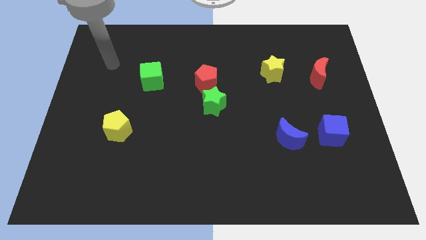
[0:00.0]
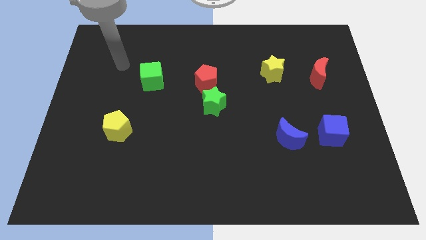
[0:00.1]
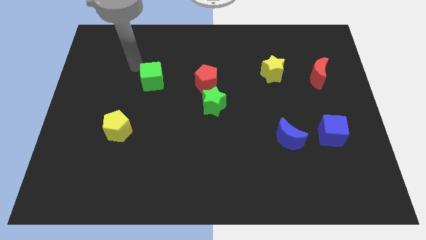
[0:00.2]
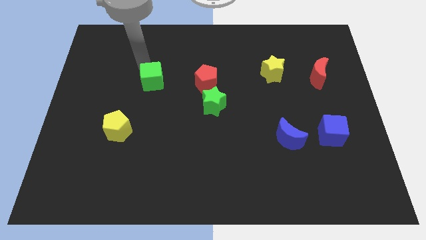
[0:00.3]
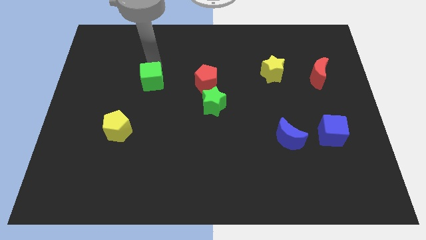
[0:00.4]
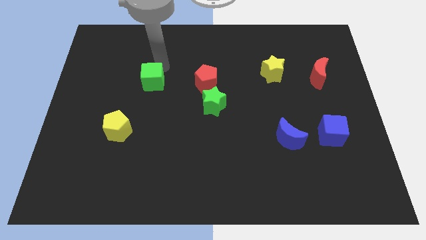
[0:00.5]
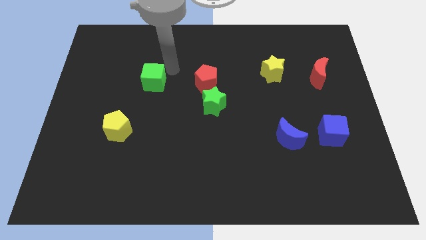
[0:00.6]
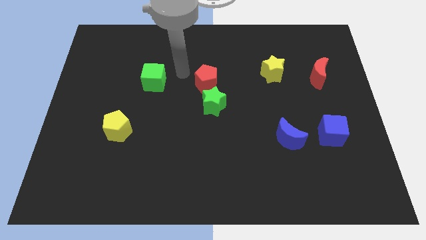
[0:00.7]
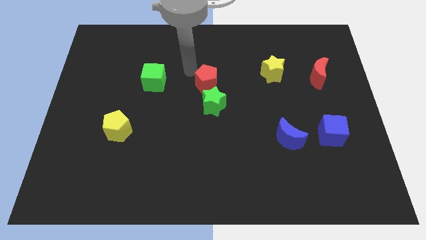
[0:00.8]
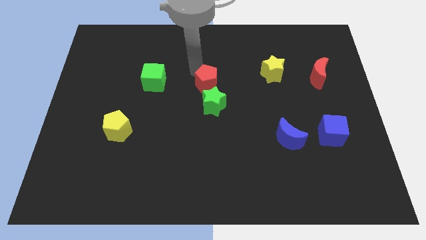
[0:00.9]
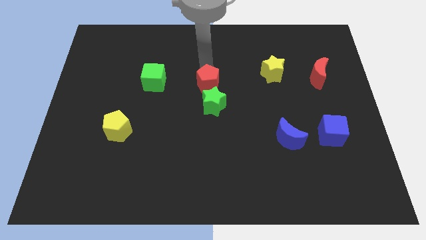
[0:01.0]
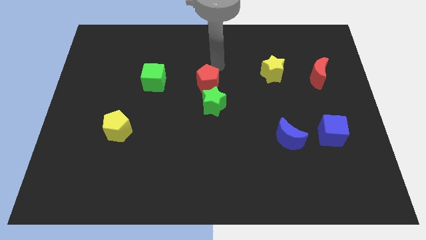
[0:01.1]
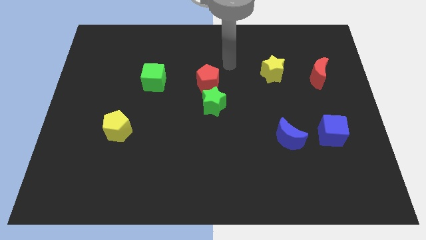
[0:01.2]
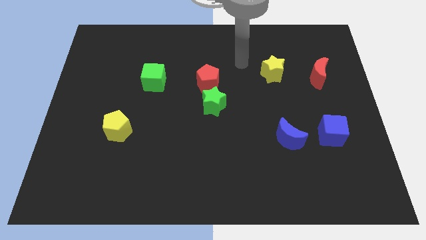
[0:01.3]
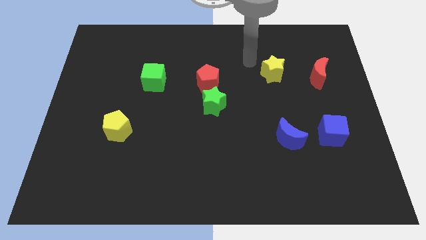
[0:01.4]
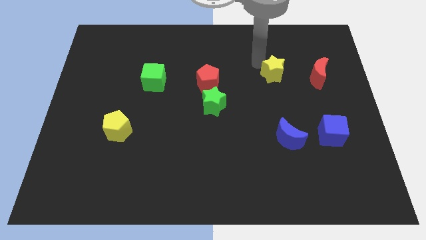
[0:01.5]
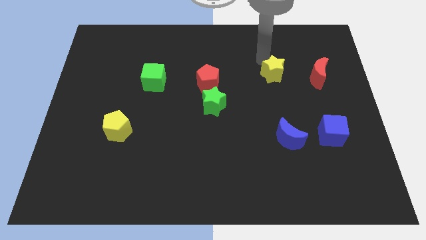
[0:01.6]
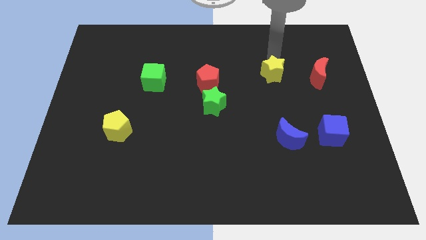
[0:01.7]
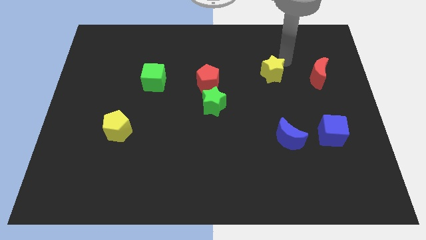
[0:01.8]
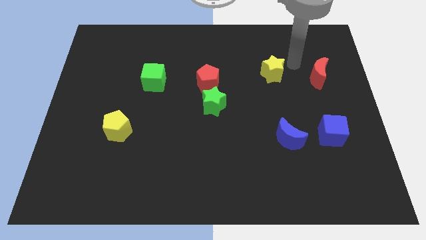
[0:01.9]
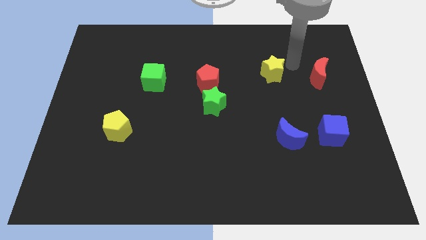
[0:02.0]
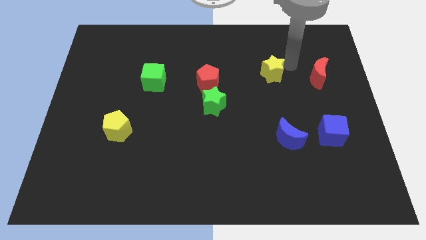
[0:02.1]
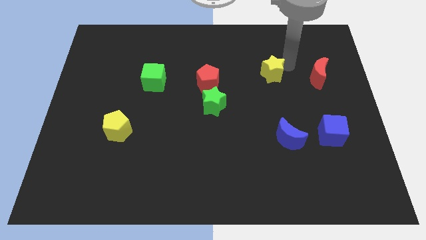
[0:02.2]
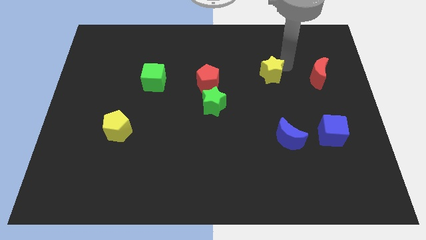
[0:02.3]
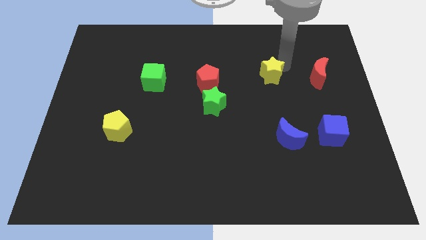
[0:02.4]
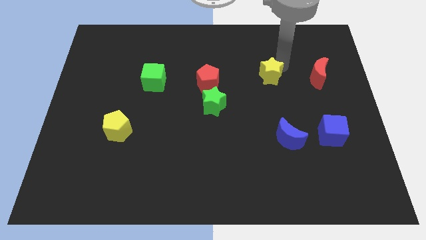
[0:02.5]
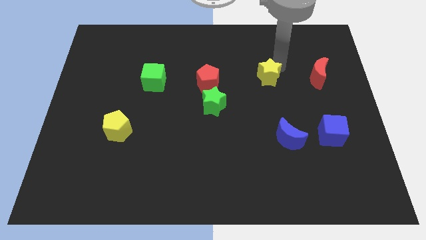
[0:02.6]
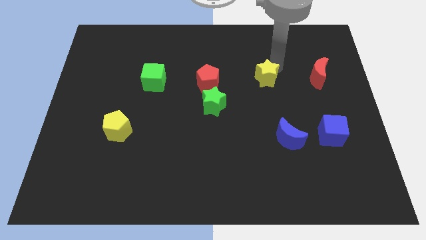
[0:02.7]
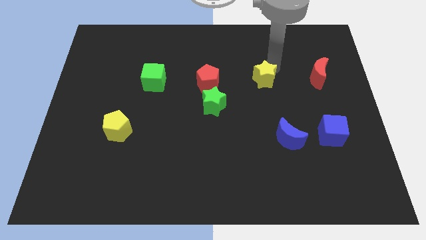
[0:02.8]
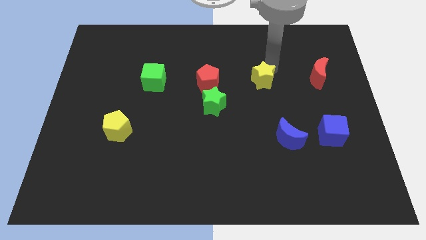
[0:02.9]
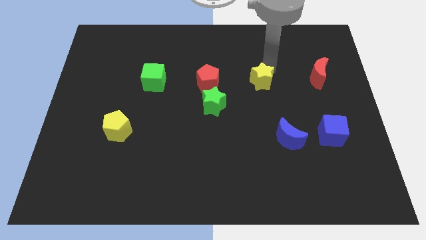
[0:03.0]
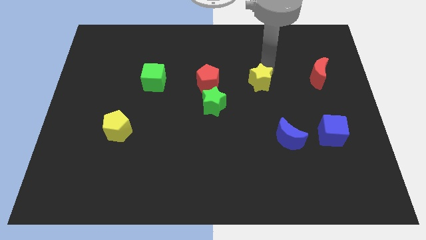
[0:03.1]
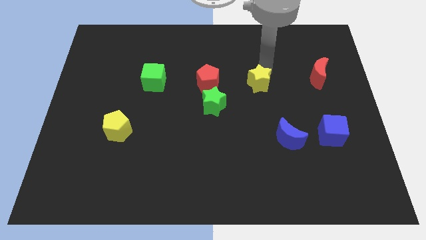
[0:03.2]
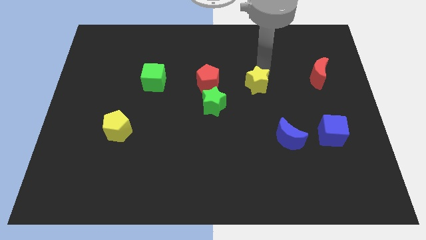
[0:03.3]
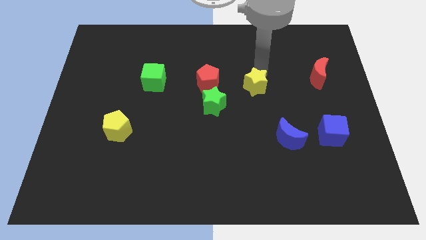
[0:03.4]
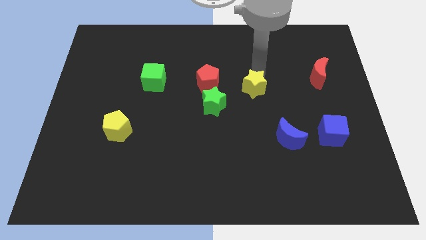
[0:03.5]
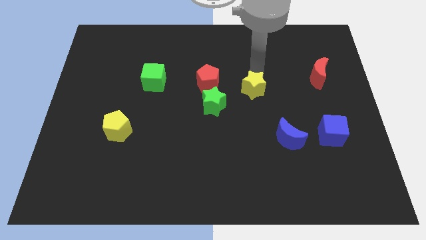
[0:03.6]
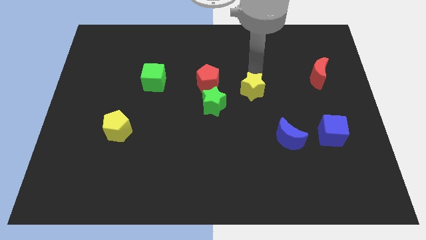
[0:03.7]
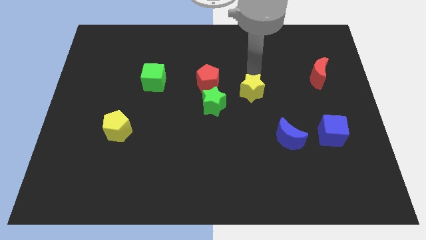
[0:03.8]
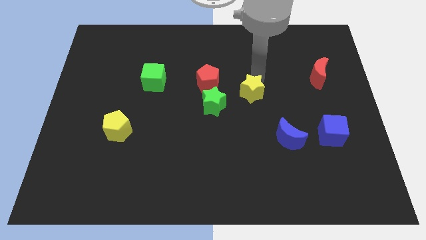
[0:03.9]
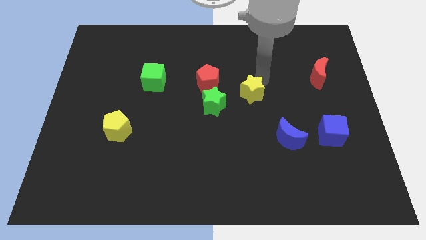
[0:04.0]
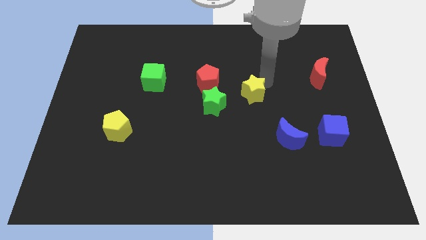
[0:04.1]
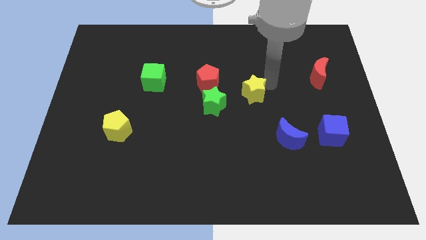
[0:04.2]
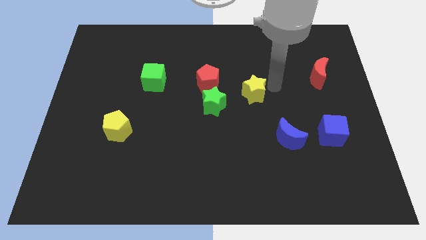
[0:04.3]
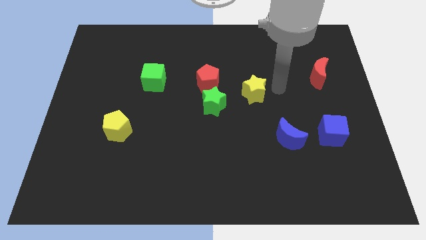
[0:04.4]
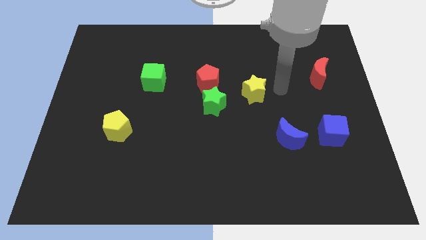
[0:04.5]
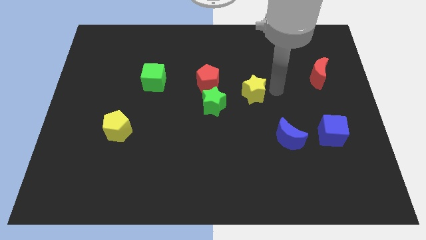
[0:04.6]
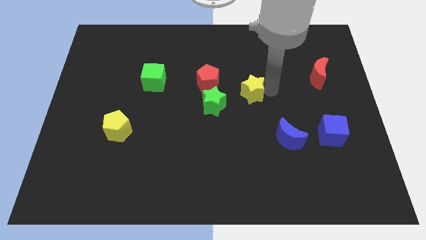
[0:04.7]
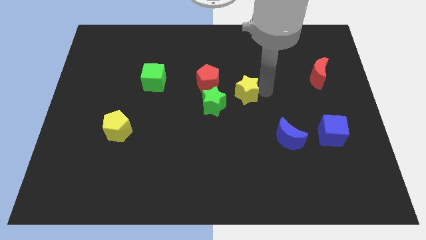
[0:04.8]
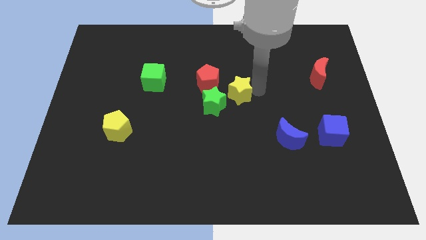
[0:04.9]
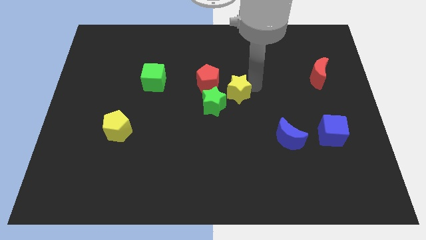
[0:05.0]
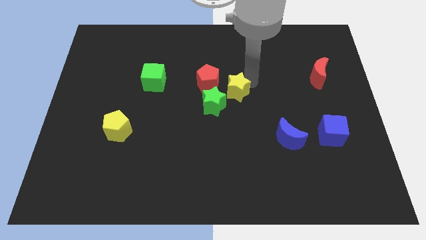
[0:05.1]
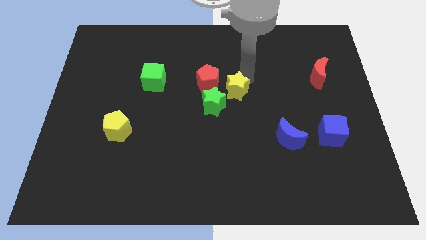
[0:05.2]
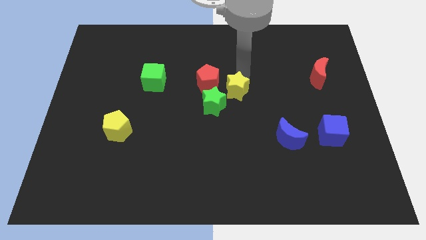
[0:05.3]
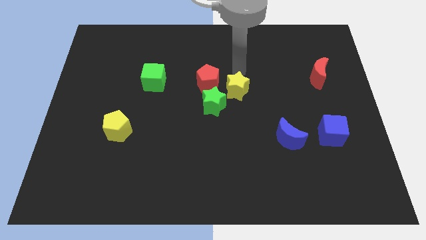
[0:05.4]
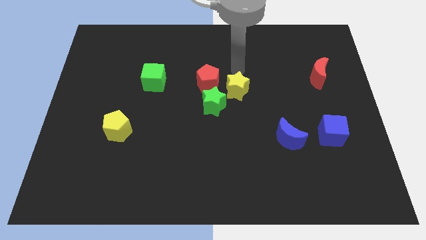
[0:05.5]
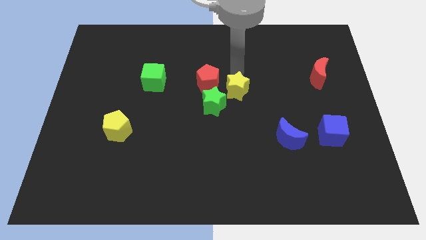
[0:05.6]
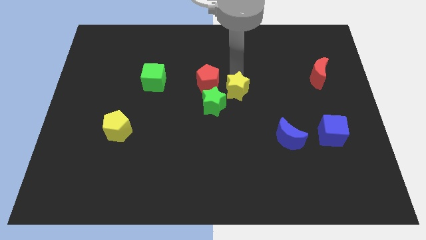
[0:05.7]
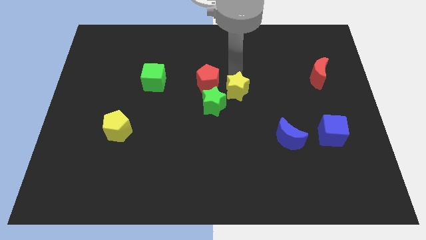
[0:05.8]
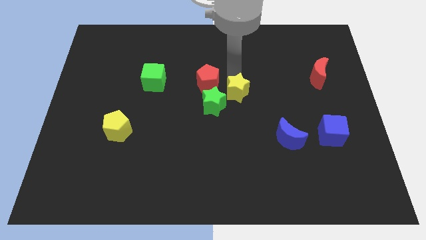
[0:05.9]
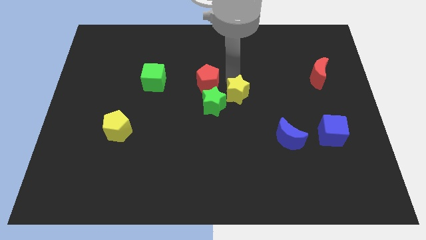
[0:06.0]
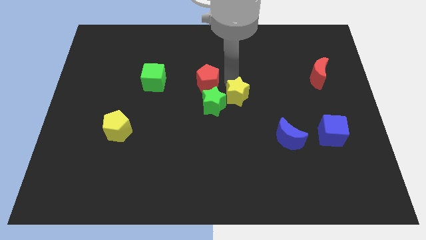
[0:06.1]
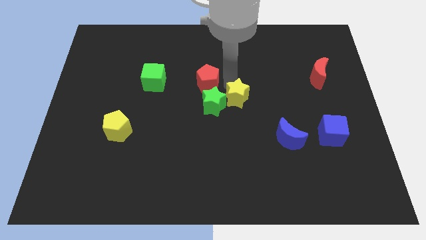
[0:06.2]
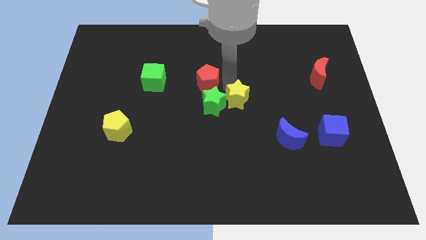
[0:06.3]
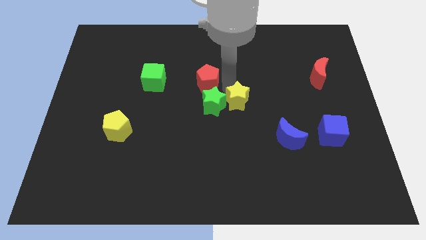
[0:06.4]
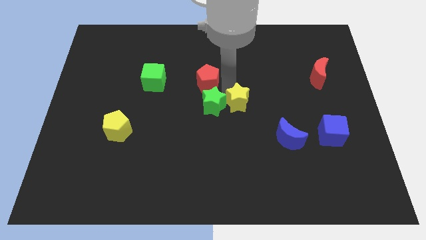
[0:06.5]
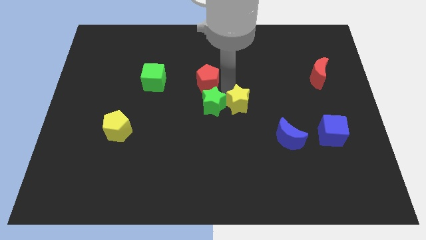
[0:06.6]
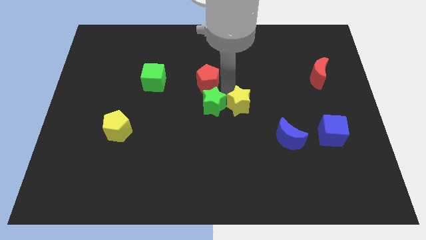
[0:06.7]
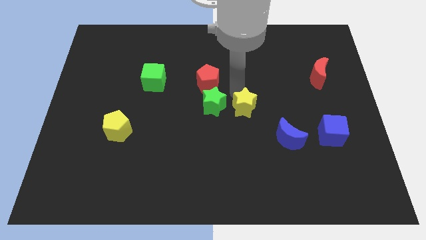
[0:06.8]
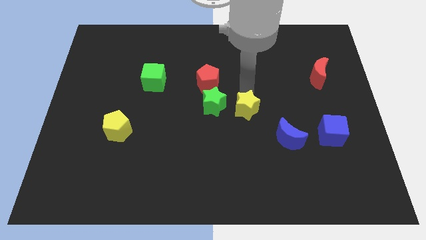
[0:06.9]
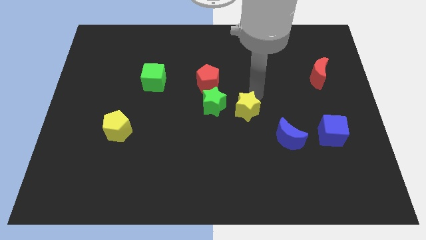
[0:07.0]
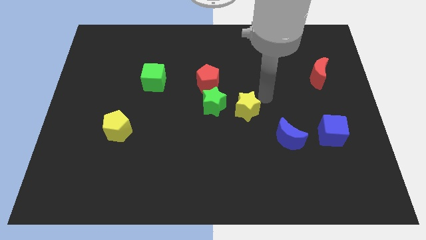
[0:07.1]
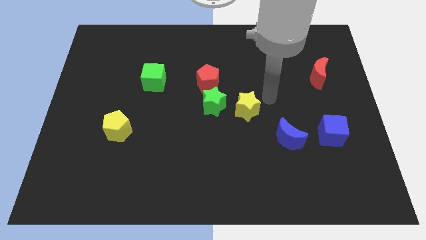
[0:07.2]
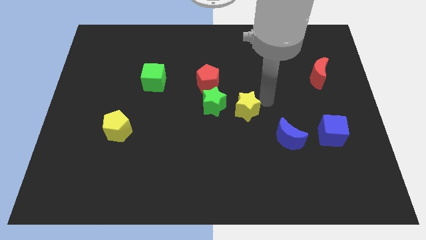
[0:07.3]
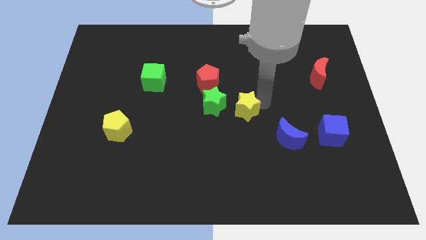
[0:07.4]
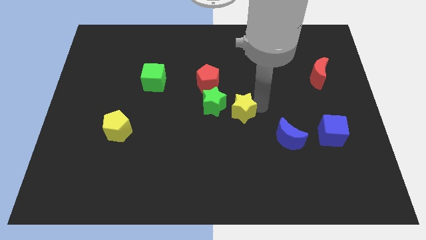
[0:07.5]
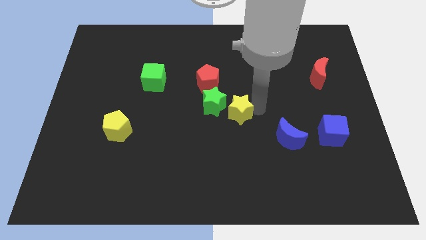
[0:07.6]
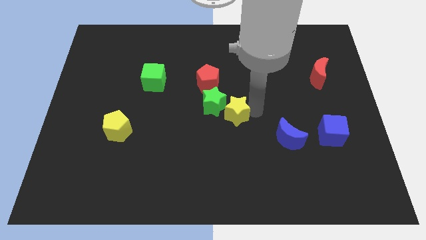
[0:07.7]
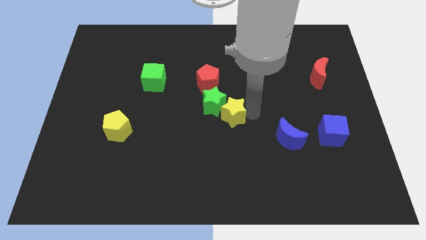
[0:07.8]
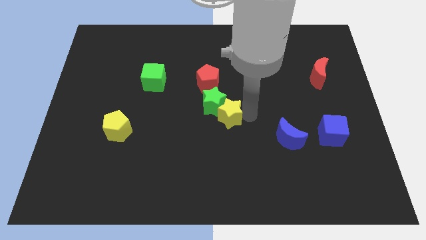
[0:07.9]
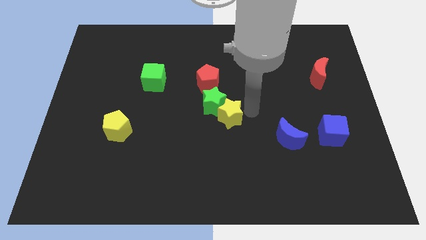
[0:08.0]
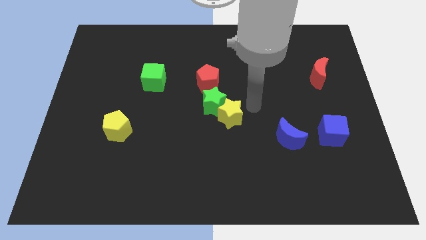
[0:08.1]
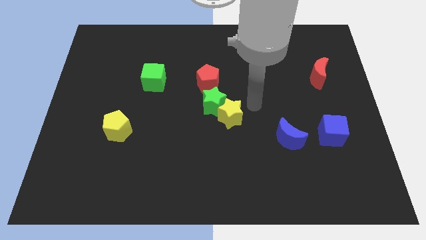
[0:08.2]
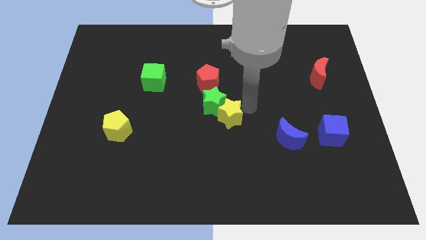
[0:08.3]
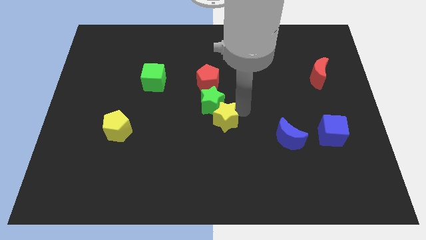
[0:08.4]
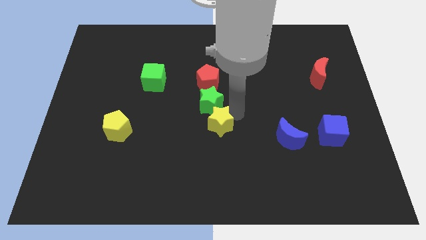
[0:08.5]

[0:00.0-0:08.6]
slide the yellow star down and left
